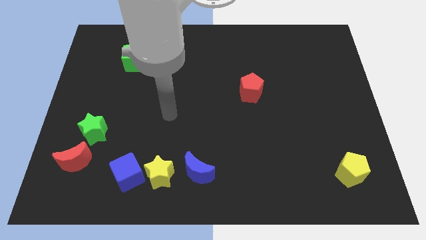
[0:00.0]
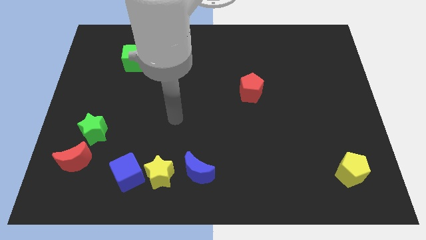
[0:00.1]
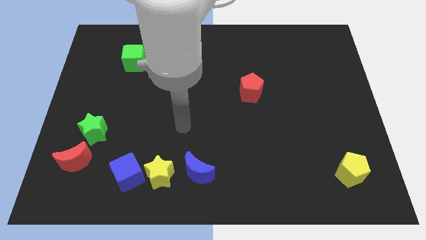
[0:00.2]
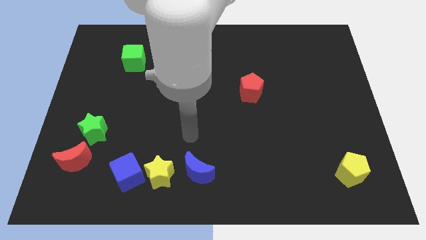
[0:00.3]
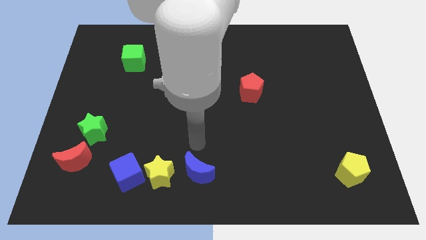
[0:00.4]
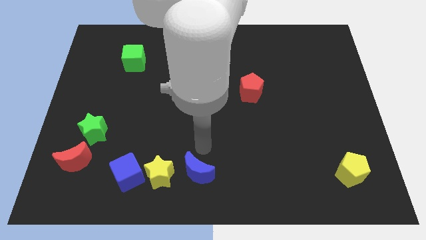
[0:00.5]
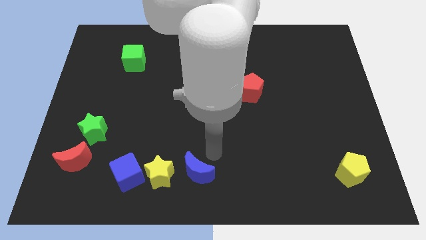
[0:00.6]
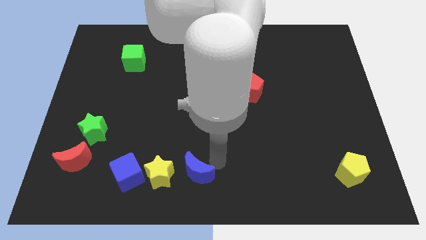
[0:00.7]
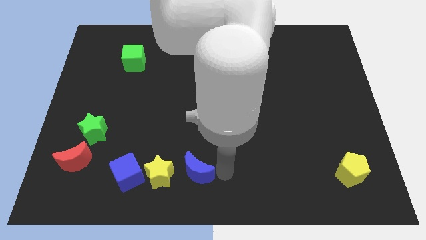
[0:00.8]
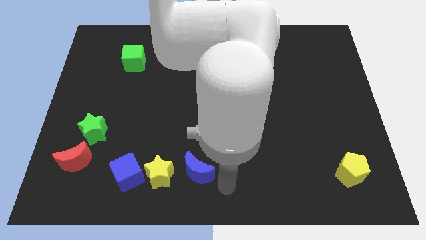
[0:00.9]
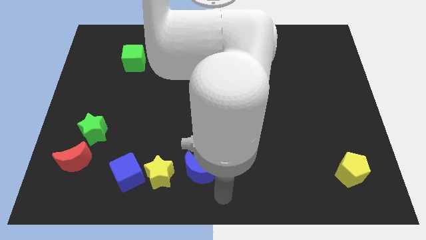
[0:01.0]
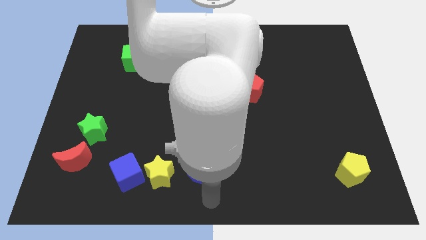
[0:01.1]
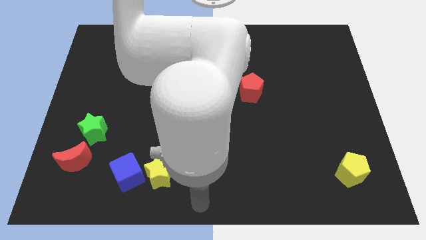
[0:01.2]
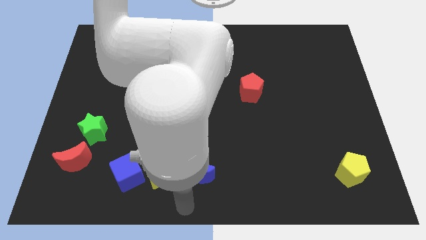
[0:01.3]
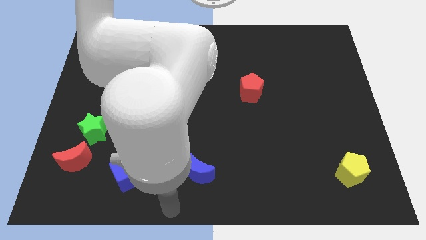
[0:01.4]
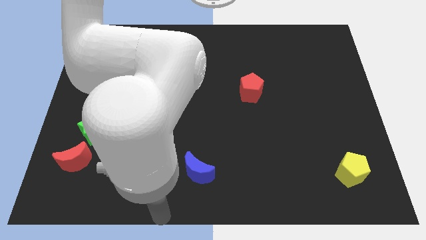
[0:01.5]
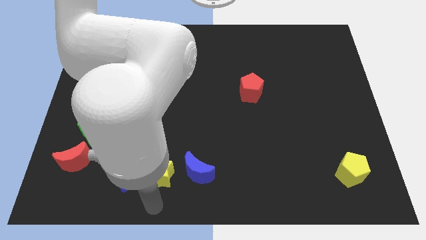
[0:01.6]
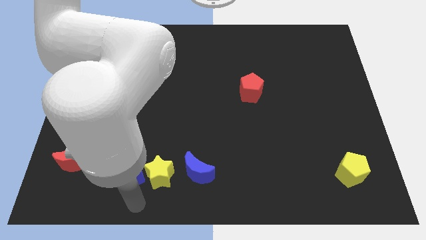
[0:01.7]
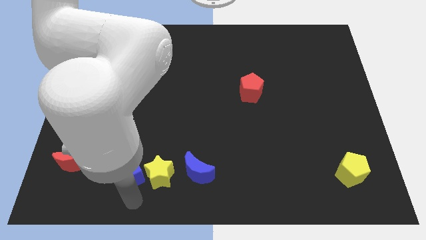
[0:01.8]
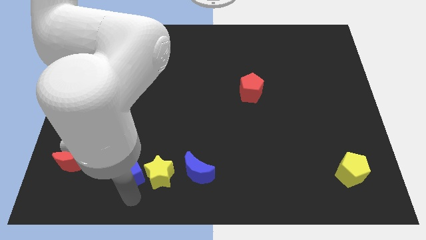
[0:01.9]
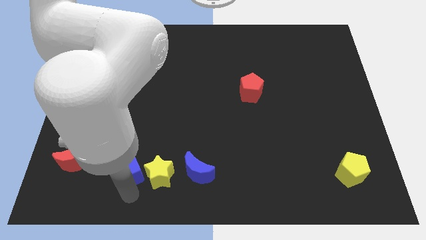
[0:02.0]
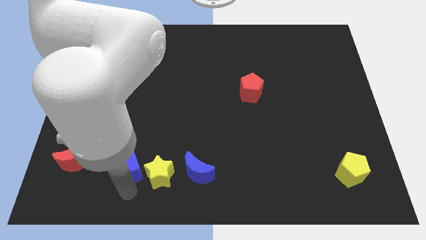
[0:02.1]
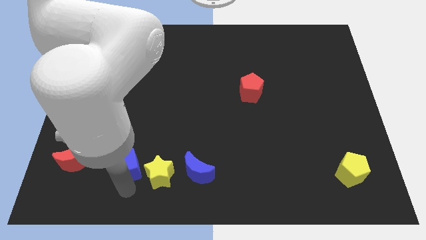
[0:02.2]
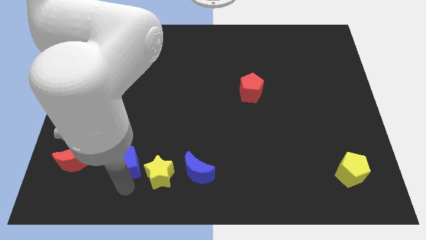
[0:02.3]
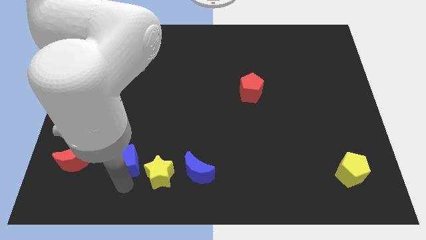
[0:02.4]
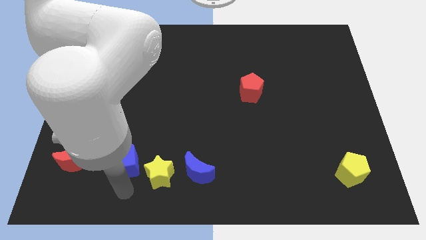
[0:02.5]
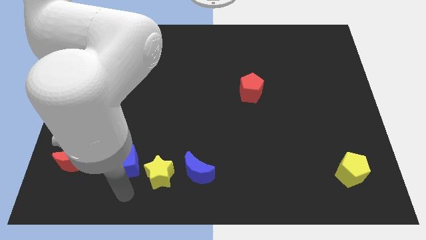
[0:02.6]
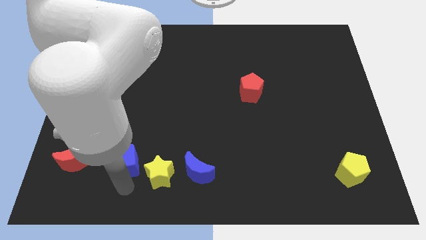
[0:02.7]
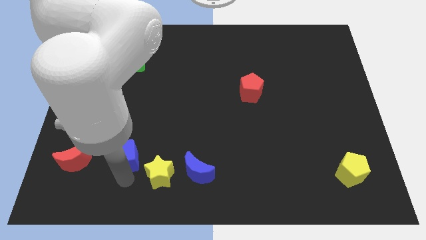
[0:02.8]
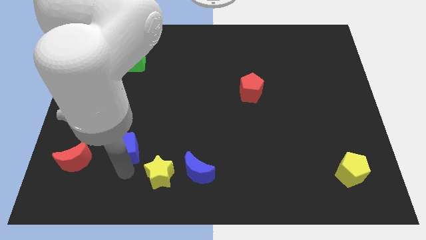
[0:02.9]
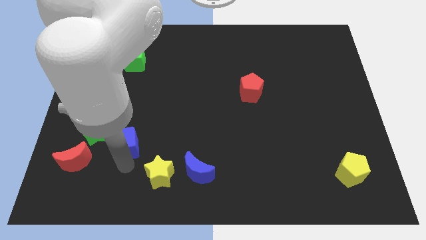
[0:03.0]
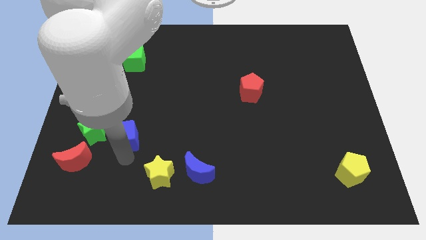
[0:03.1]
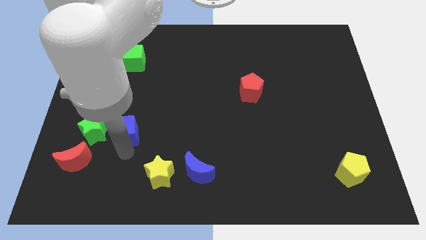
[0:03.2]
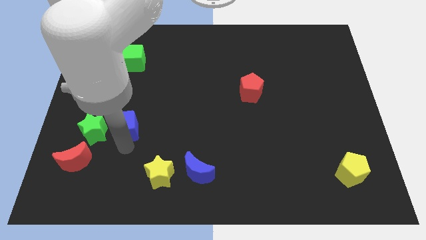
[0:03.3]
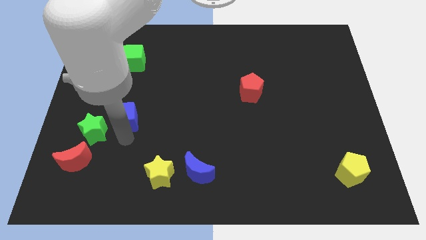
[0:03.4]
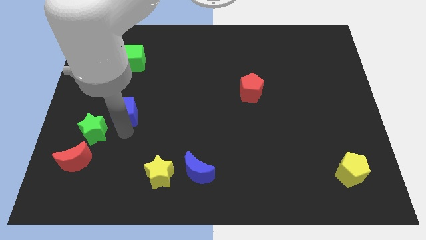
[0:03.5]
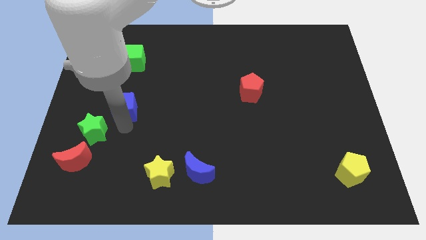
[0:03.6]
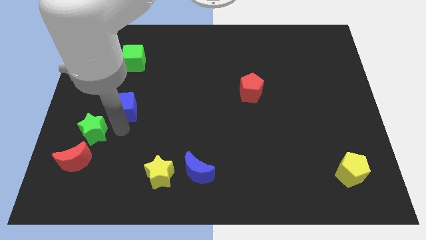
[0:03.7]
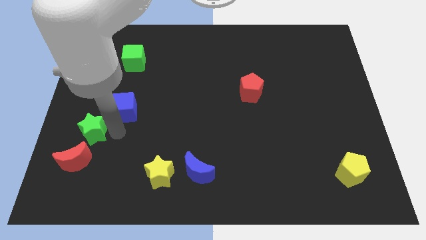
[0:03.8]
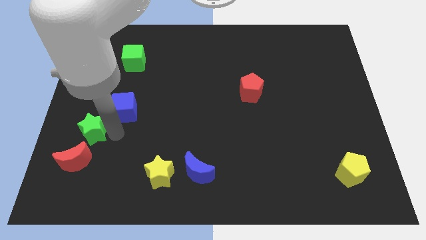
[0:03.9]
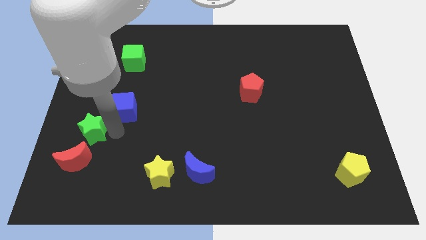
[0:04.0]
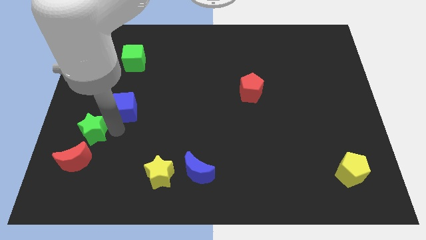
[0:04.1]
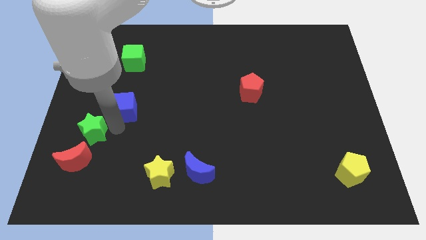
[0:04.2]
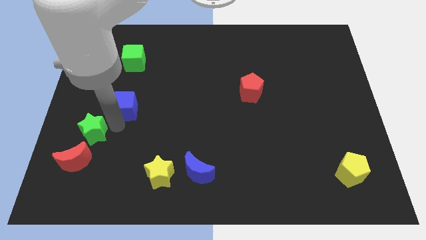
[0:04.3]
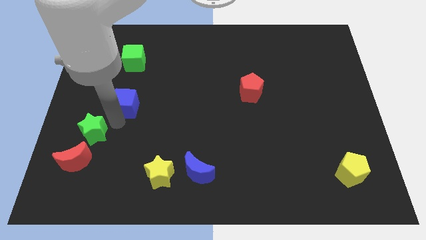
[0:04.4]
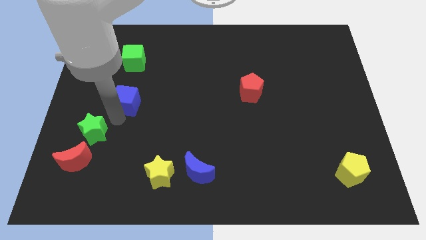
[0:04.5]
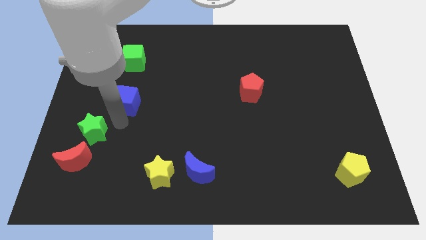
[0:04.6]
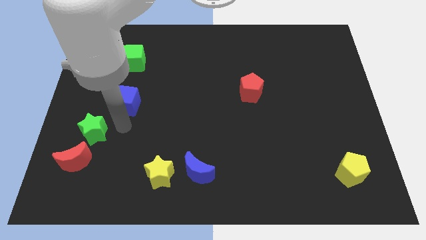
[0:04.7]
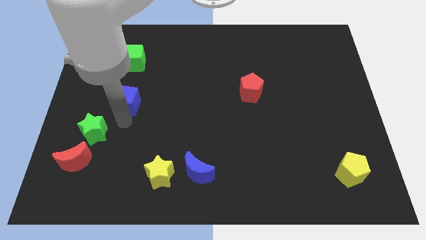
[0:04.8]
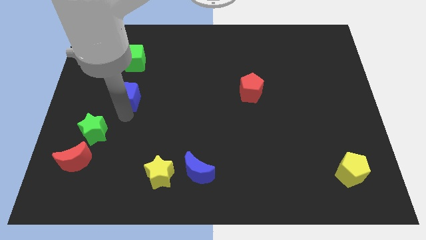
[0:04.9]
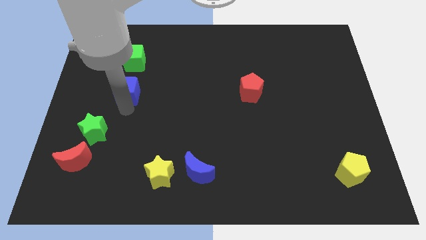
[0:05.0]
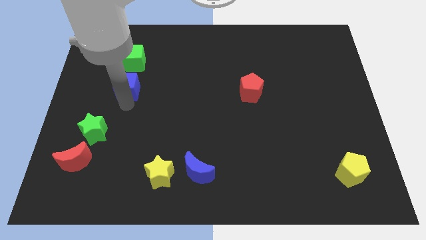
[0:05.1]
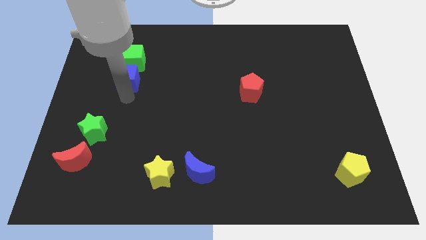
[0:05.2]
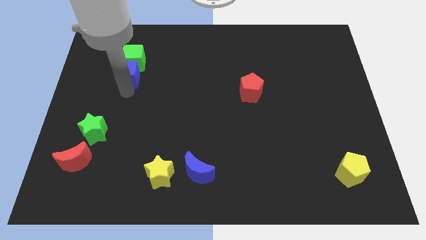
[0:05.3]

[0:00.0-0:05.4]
push the blue cube to the green cube

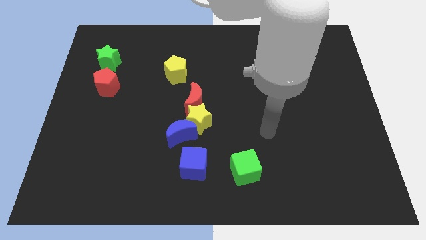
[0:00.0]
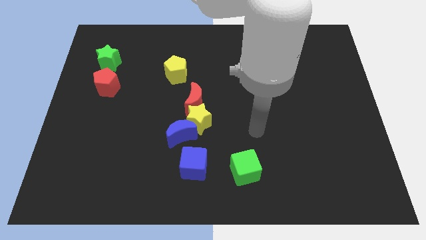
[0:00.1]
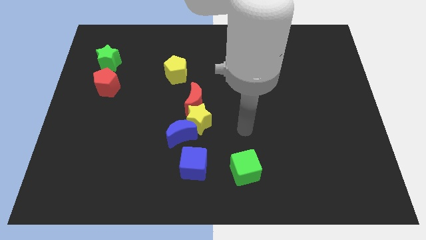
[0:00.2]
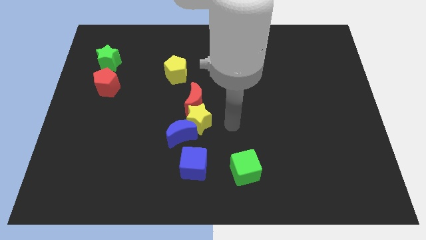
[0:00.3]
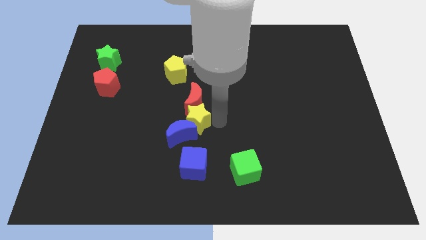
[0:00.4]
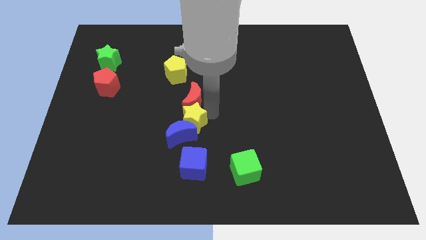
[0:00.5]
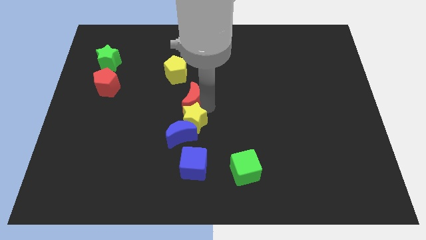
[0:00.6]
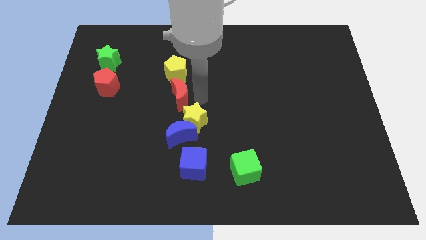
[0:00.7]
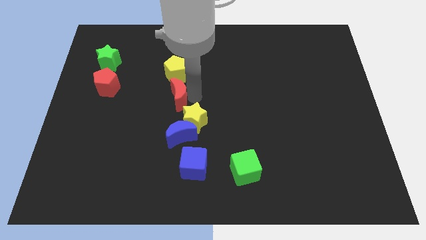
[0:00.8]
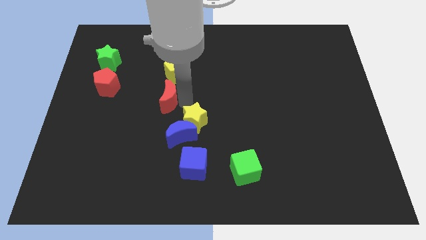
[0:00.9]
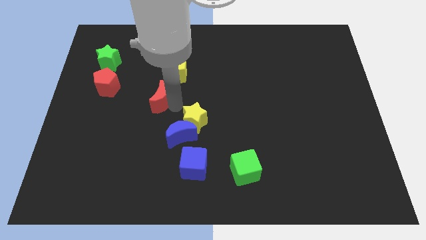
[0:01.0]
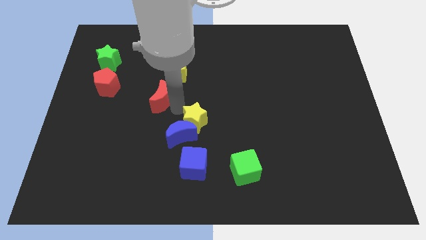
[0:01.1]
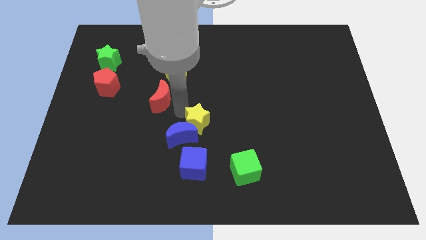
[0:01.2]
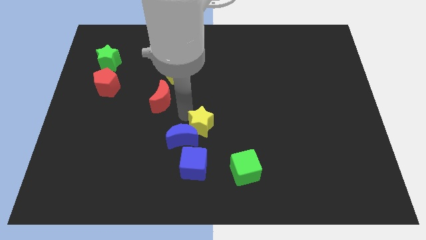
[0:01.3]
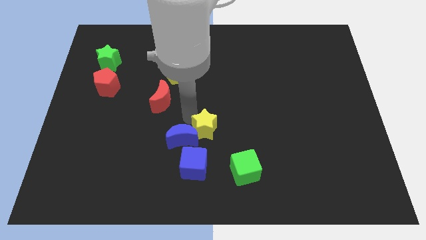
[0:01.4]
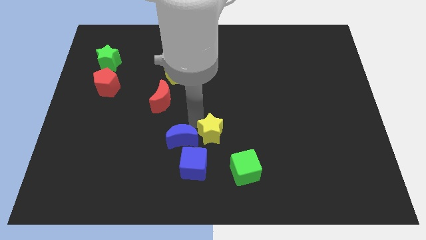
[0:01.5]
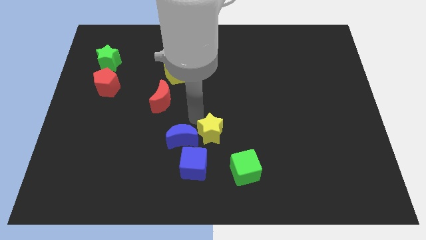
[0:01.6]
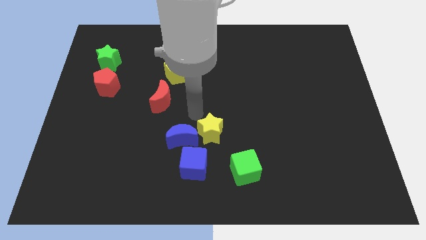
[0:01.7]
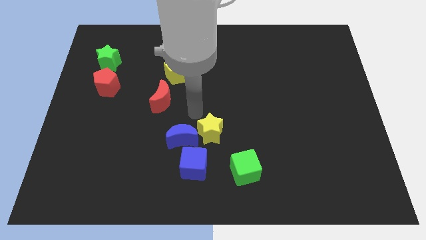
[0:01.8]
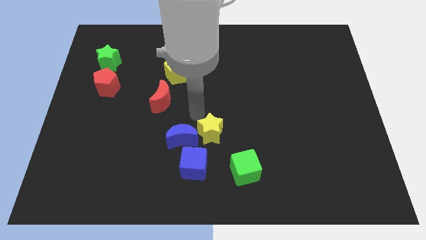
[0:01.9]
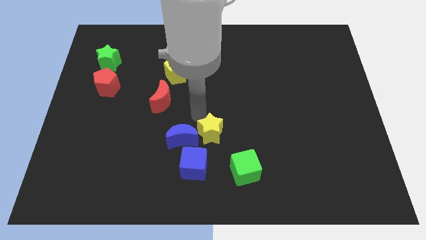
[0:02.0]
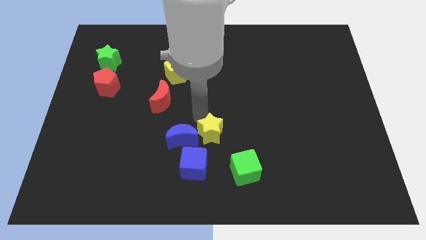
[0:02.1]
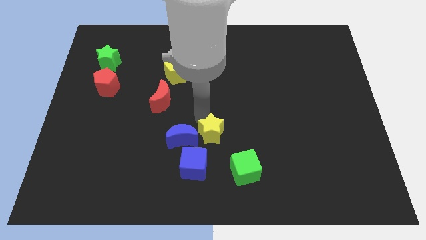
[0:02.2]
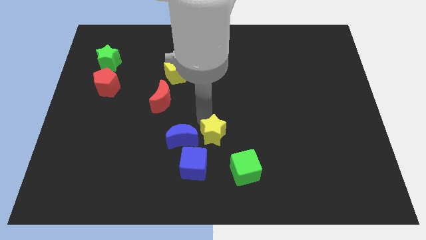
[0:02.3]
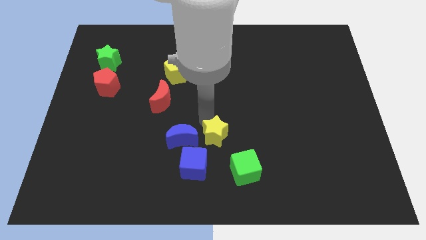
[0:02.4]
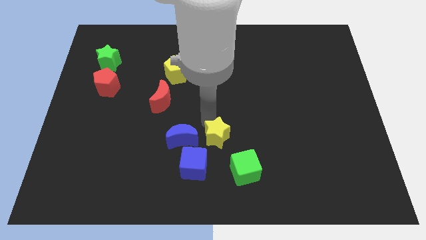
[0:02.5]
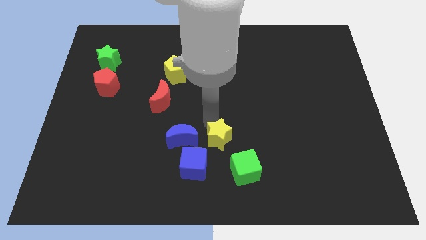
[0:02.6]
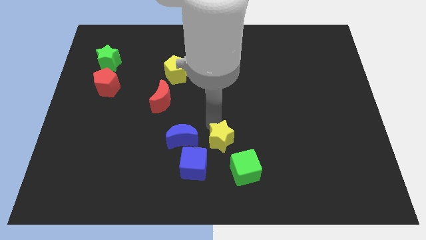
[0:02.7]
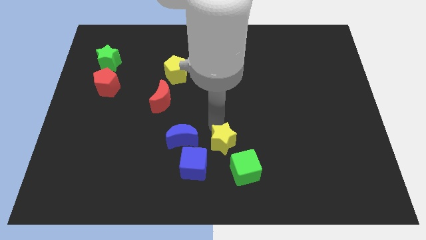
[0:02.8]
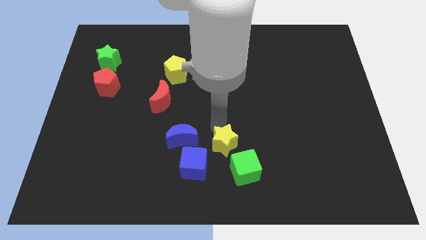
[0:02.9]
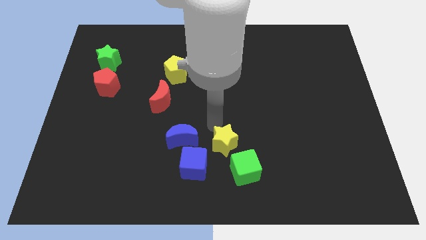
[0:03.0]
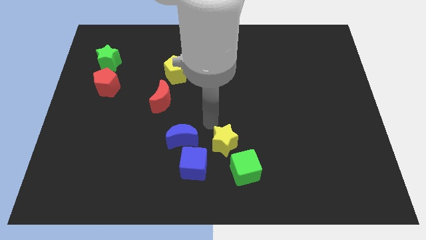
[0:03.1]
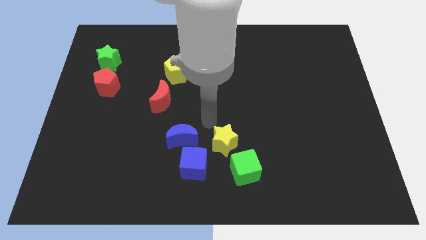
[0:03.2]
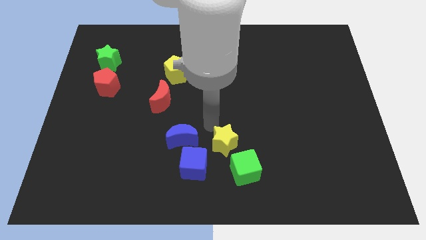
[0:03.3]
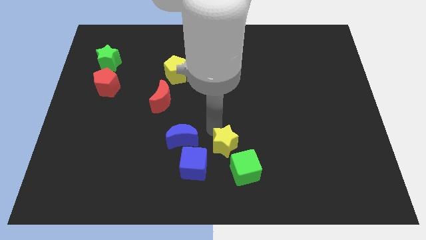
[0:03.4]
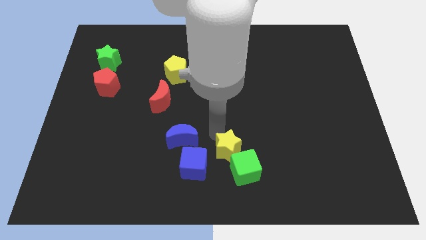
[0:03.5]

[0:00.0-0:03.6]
slide the yellow star towards the green cube
